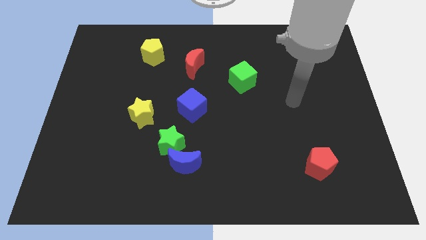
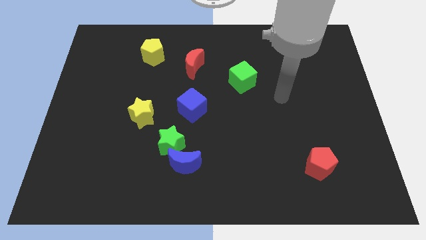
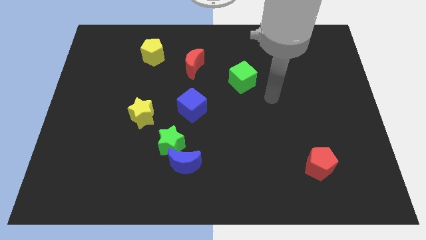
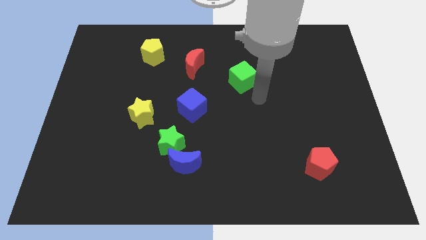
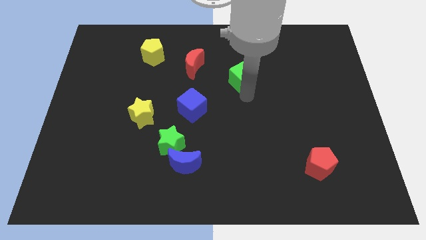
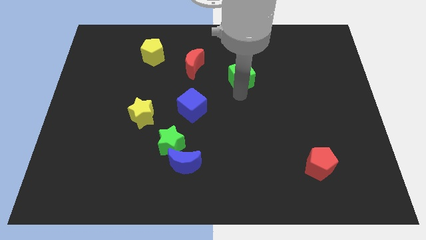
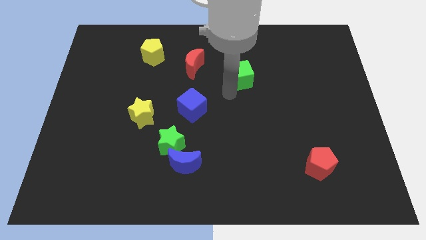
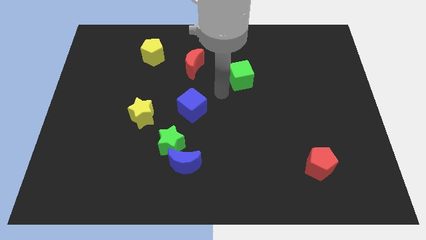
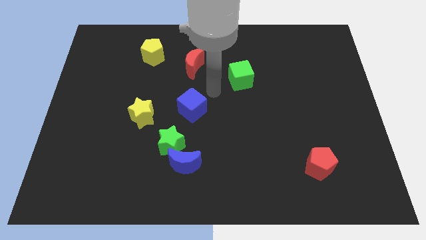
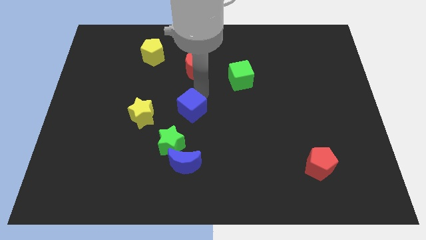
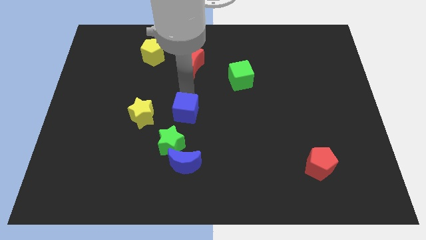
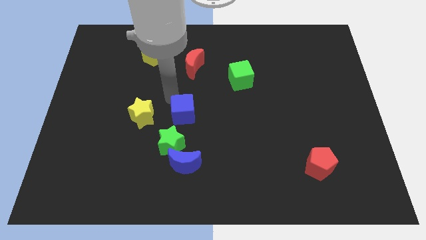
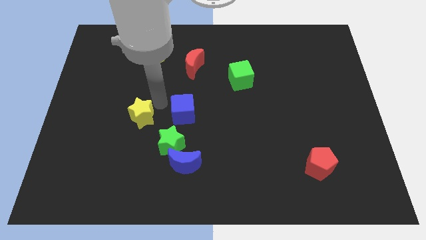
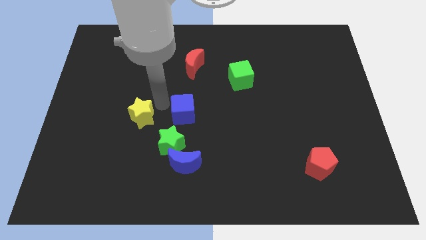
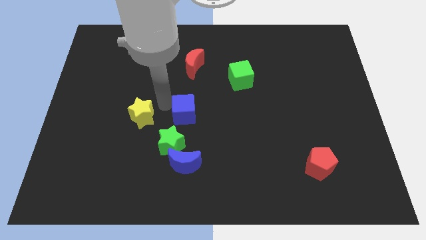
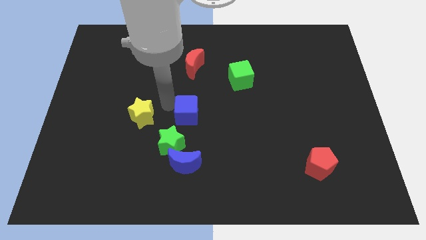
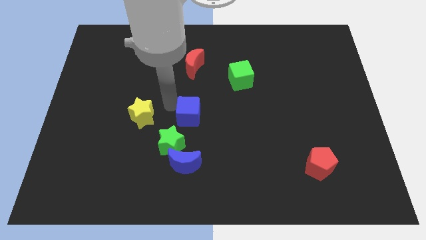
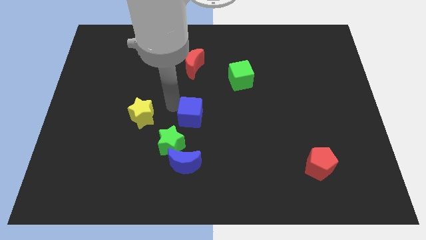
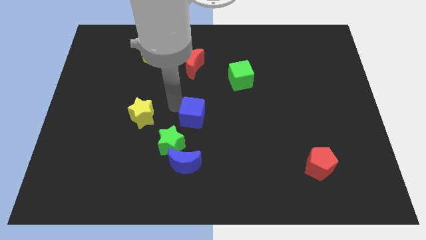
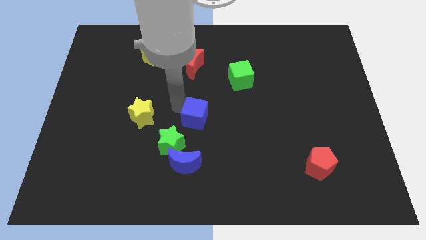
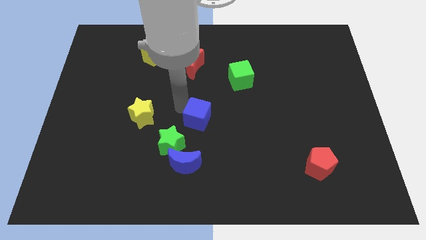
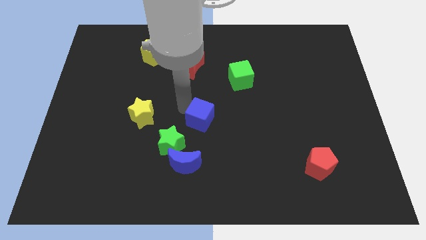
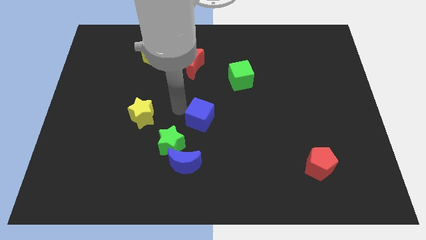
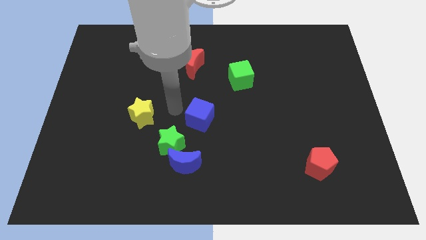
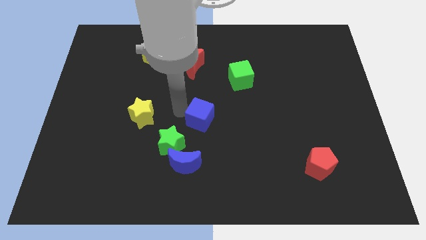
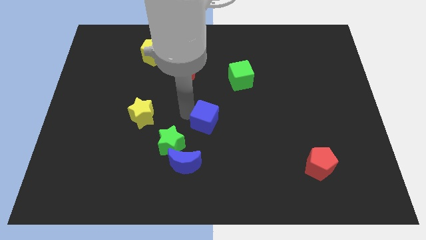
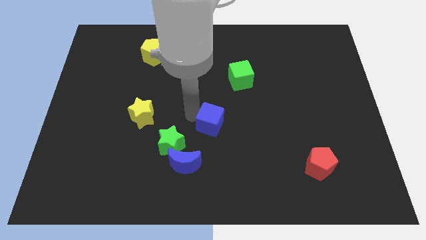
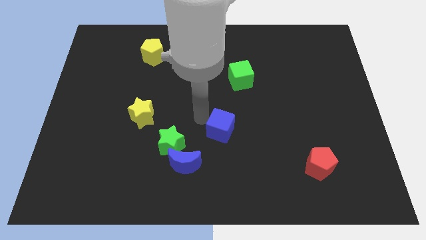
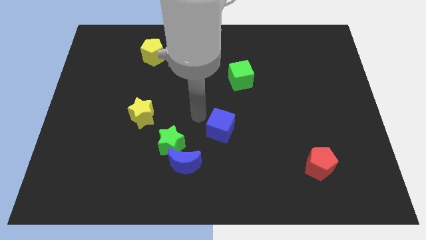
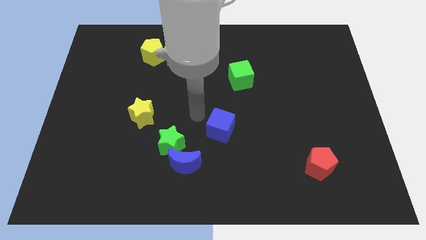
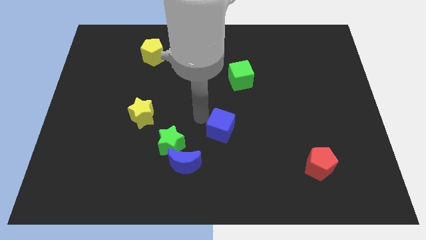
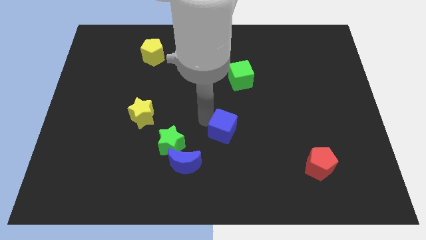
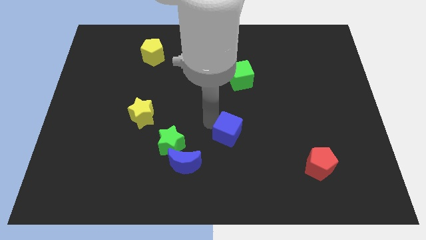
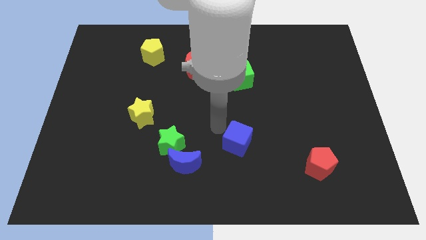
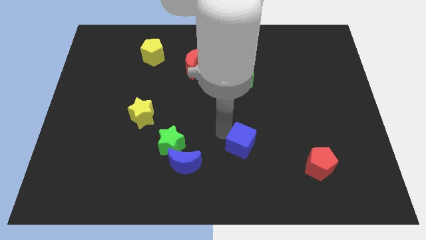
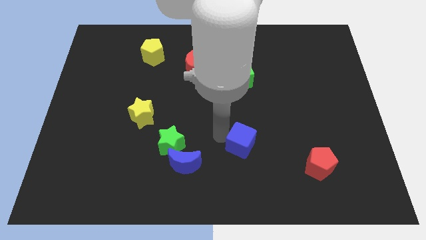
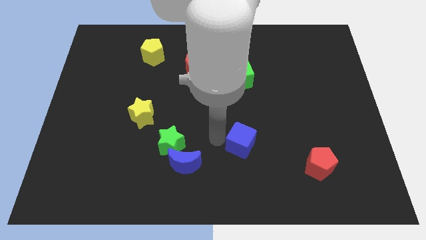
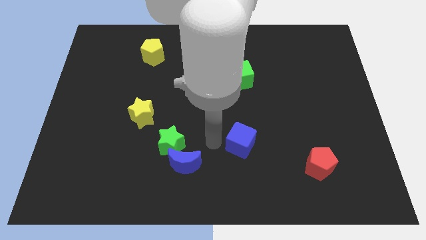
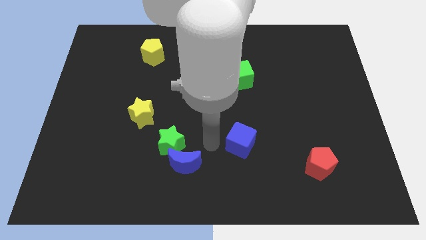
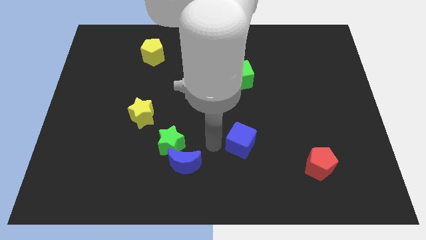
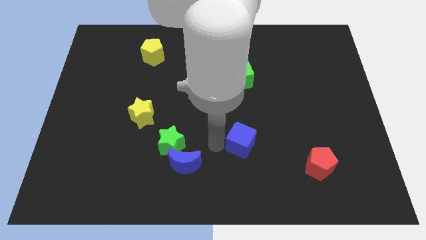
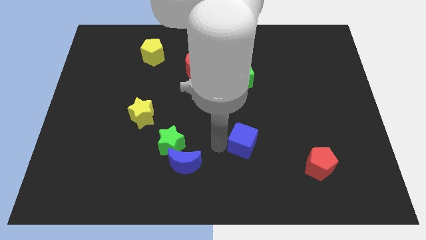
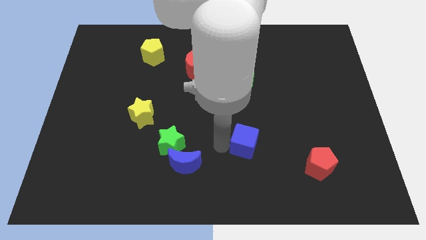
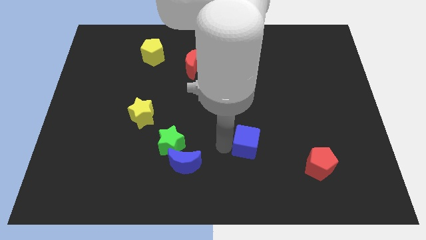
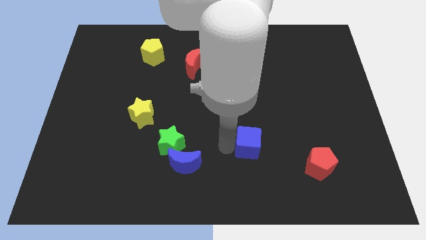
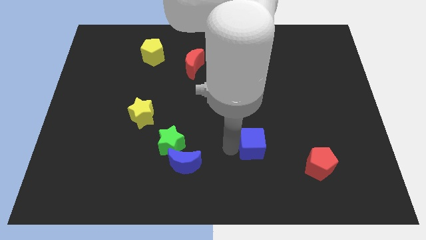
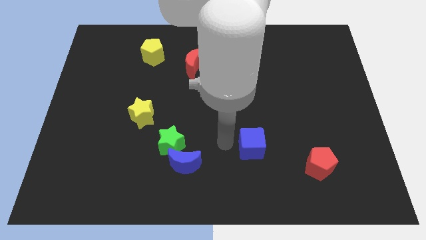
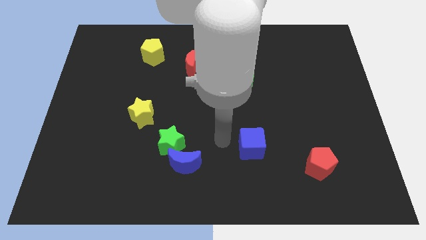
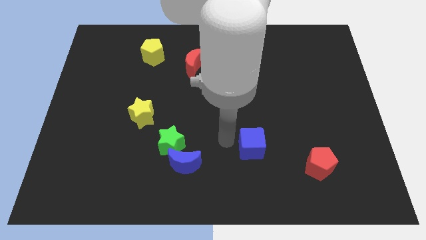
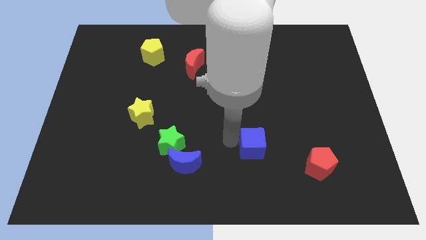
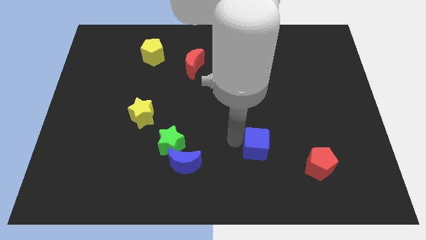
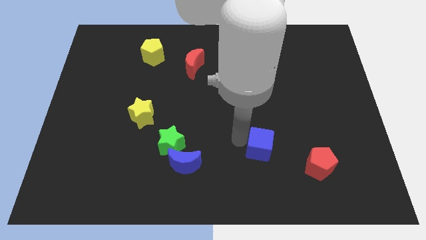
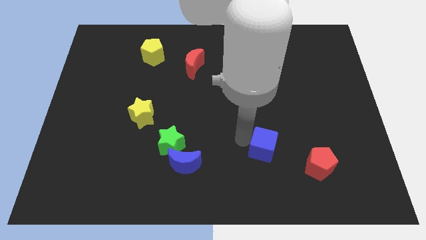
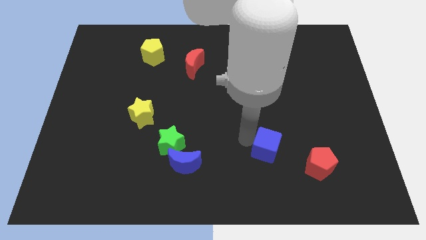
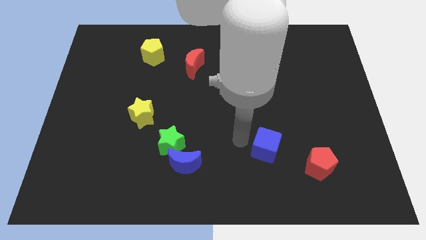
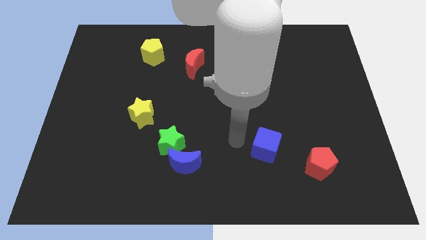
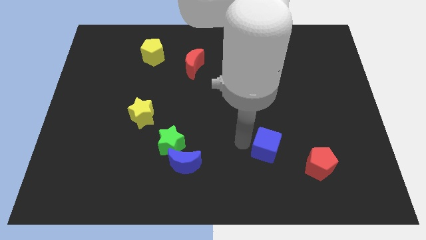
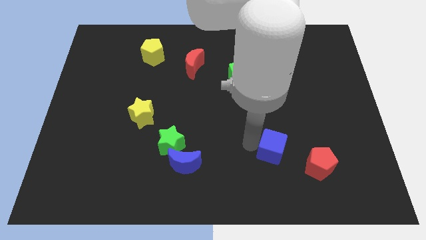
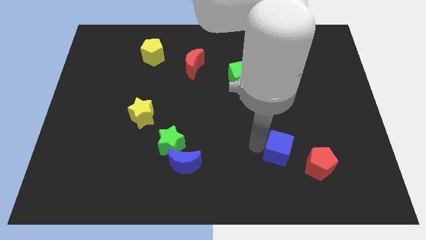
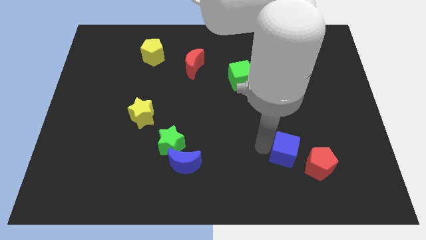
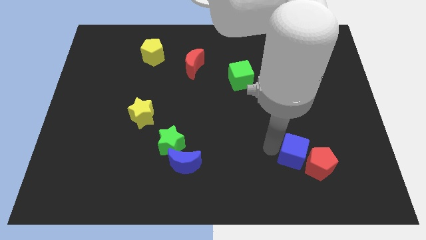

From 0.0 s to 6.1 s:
push the blue cube next to the red pentagon

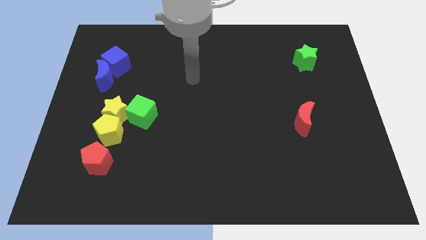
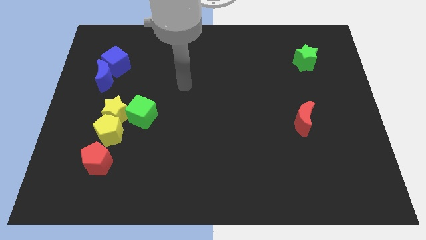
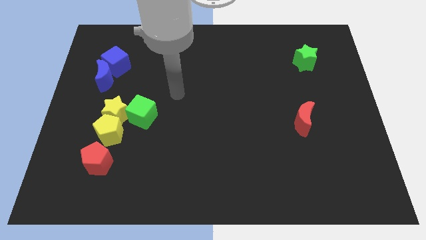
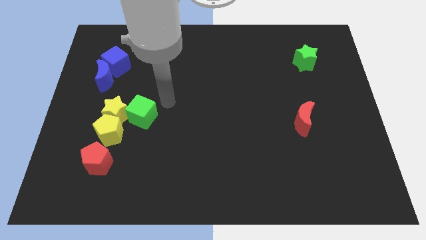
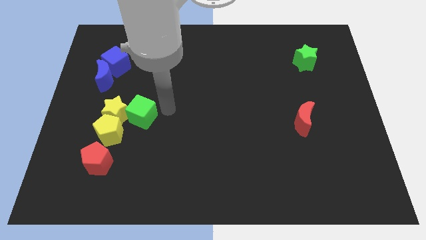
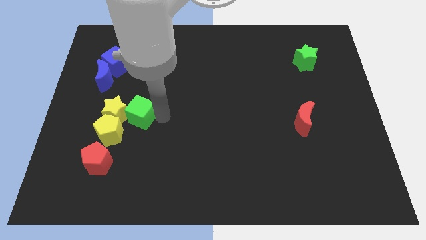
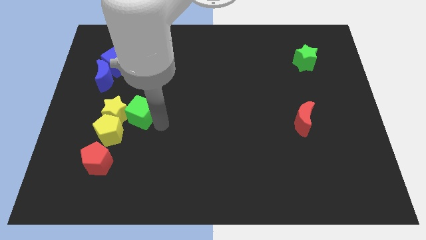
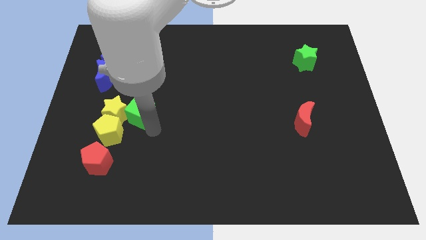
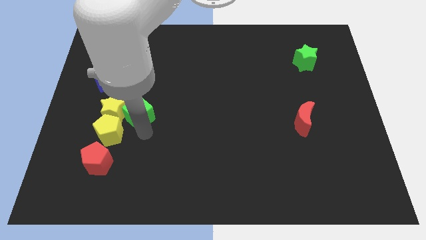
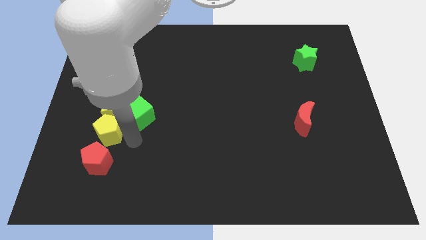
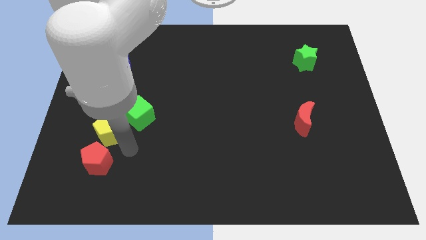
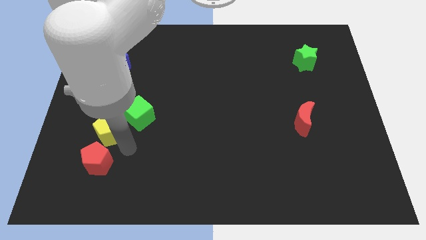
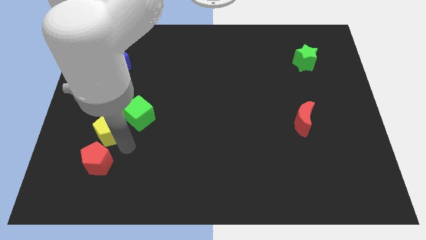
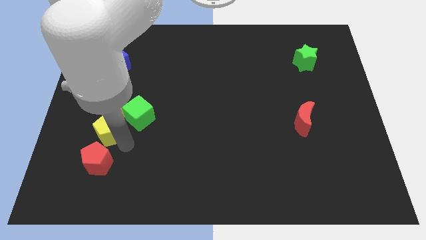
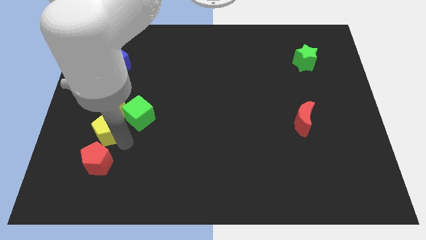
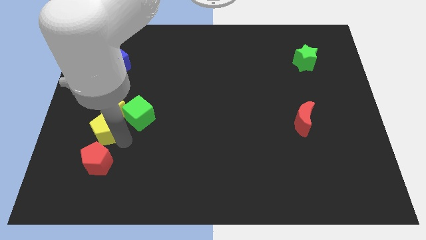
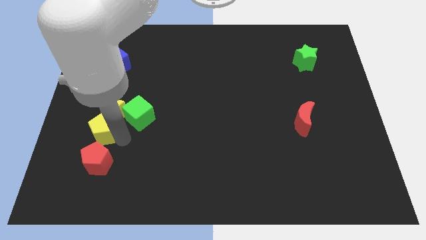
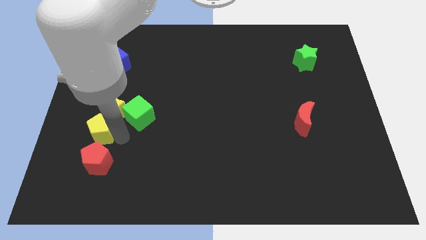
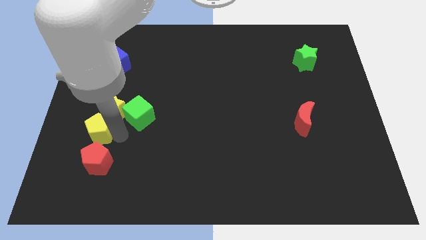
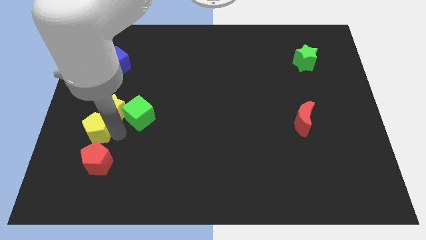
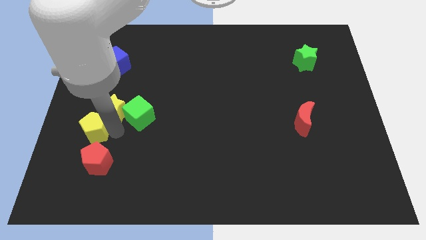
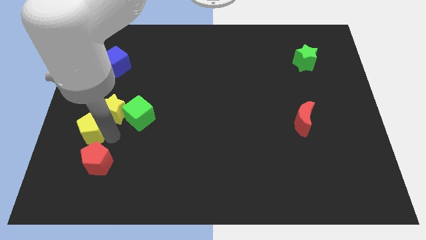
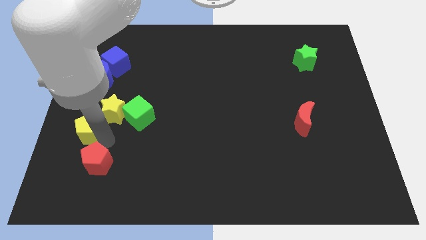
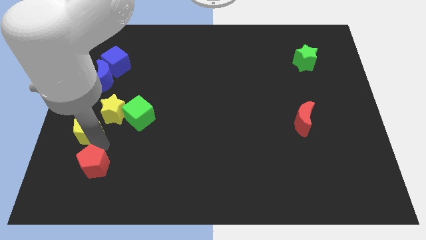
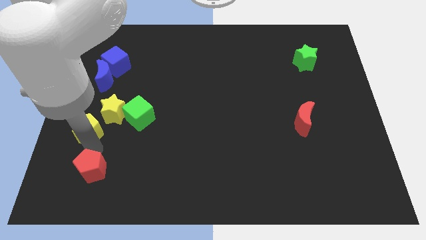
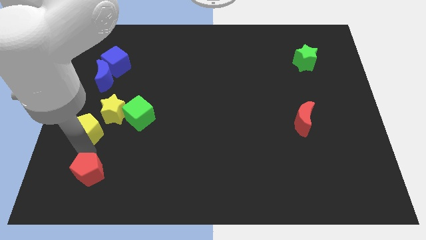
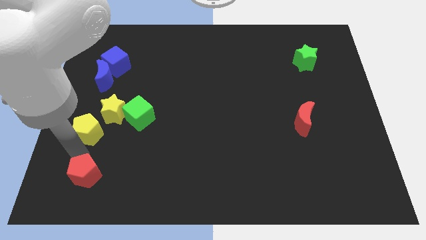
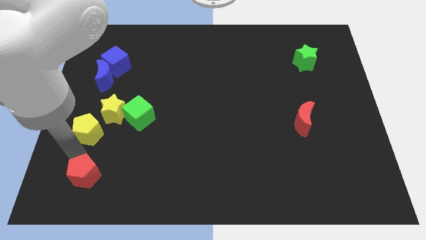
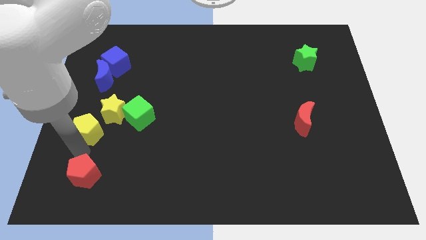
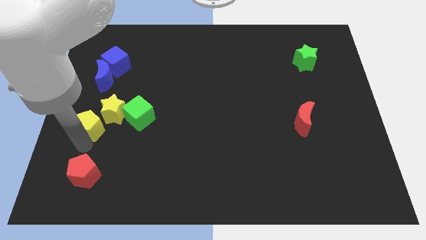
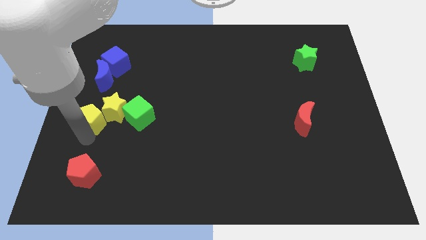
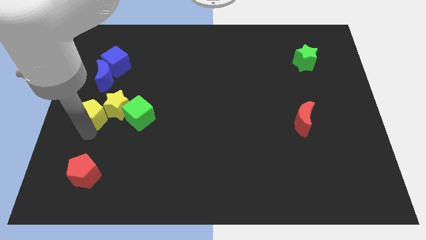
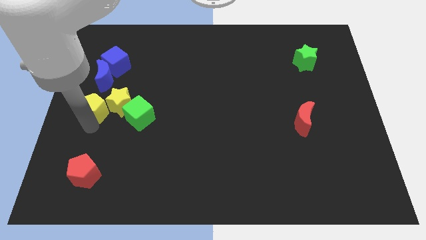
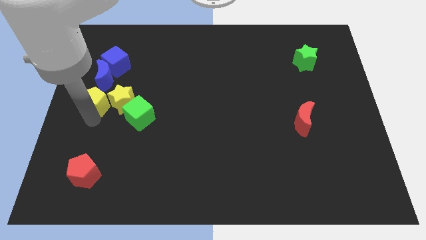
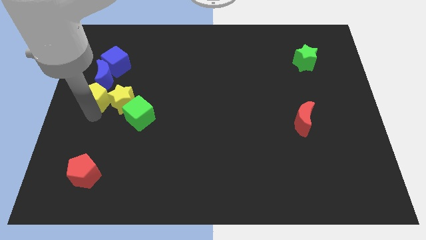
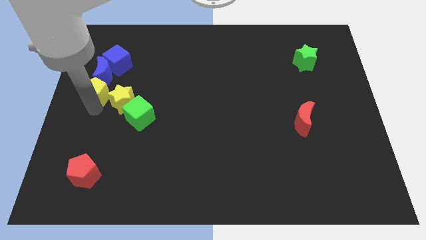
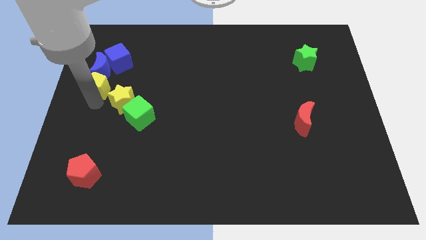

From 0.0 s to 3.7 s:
push the yellow pentagon next to the blue moon
